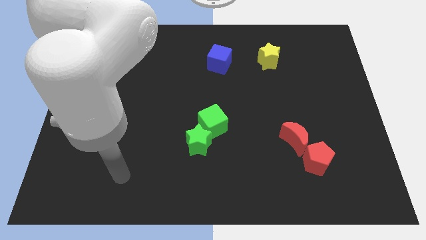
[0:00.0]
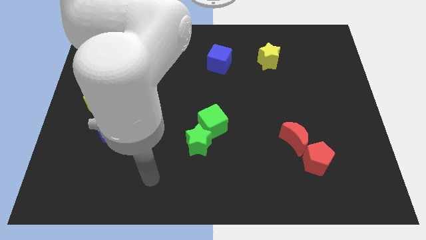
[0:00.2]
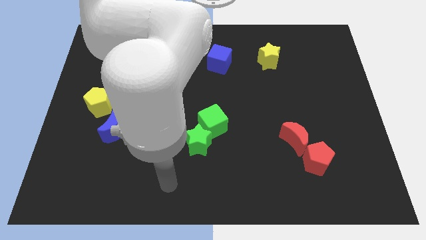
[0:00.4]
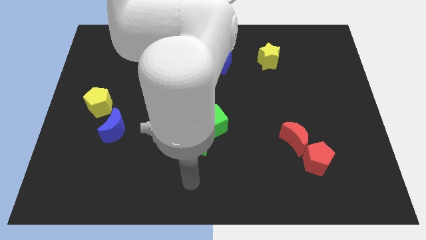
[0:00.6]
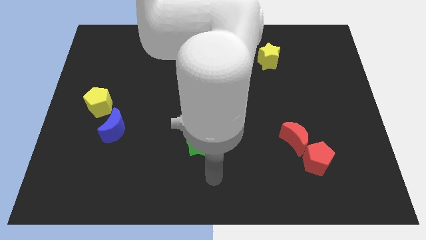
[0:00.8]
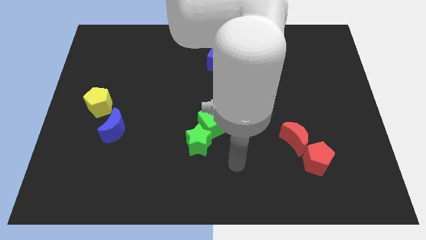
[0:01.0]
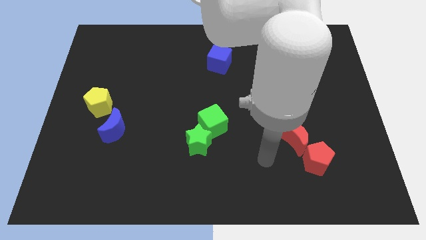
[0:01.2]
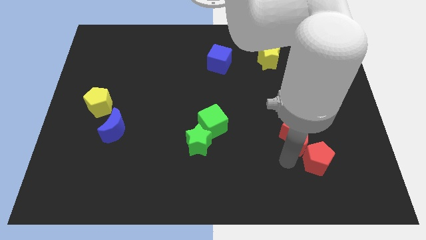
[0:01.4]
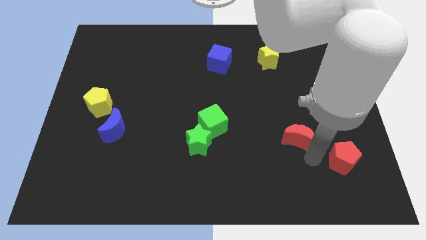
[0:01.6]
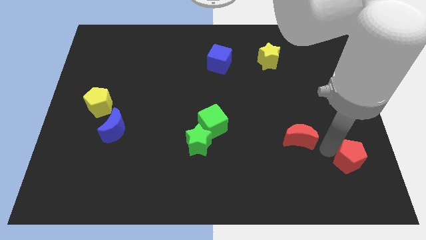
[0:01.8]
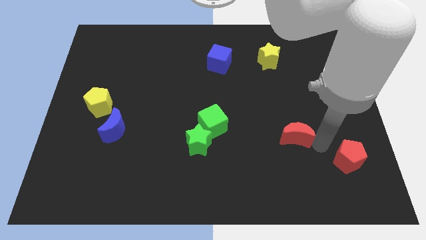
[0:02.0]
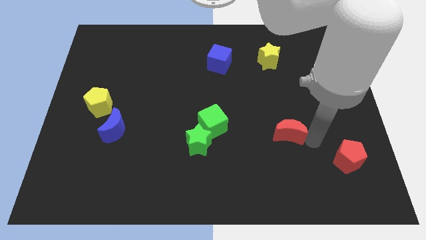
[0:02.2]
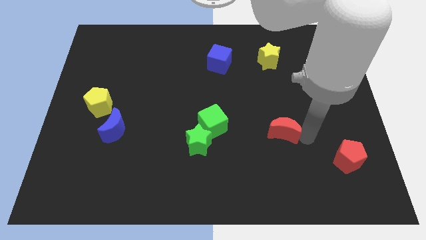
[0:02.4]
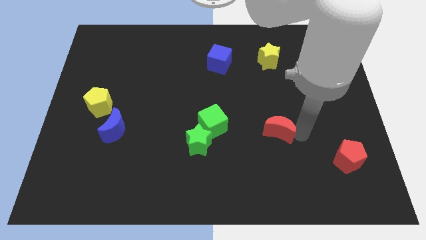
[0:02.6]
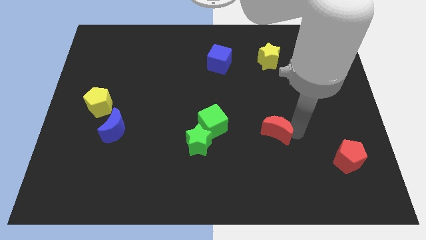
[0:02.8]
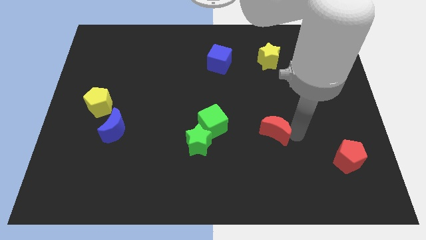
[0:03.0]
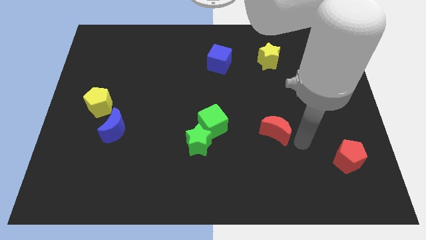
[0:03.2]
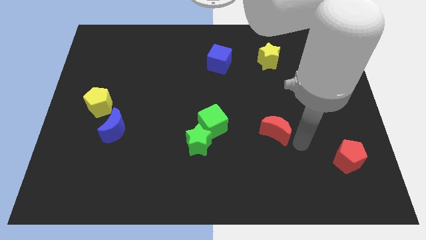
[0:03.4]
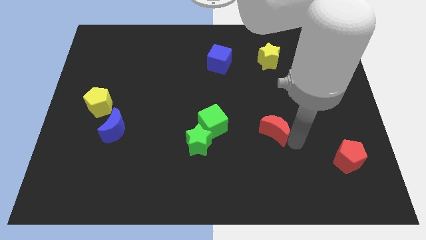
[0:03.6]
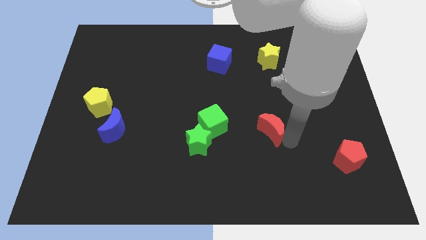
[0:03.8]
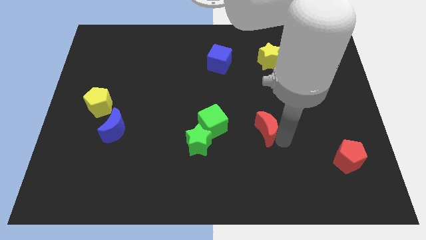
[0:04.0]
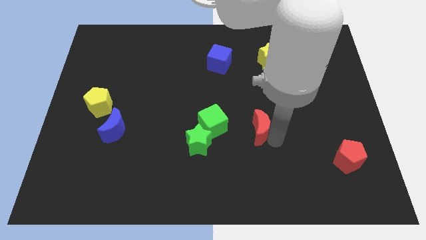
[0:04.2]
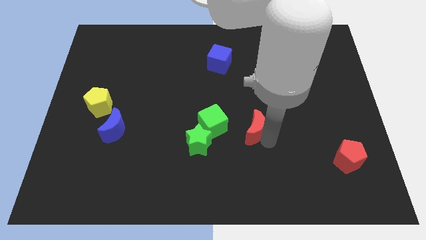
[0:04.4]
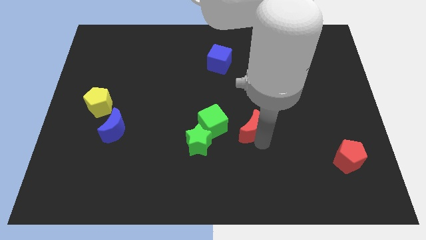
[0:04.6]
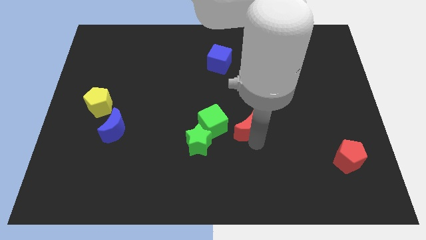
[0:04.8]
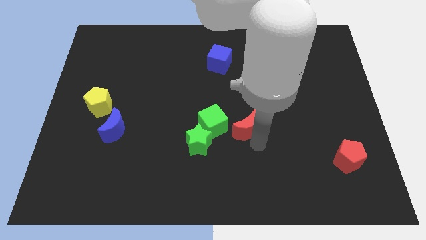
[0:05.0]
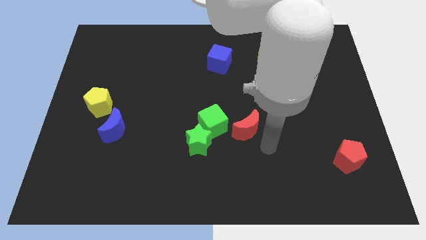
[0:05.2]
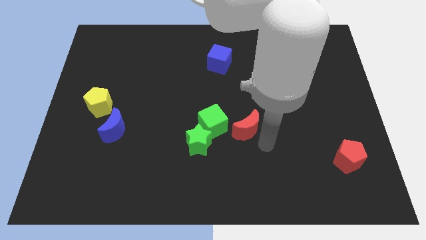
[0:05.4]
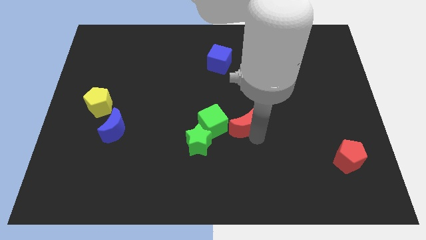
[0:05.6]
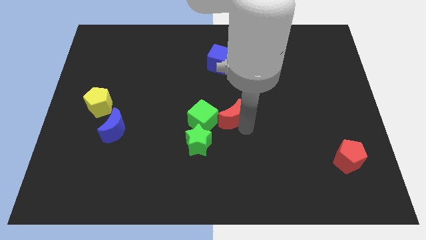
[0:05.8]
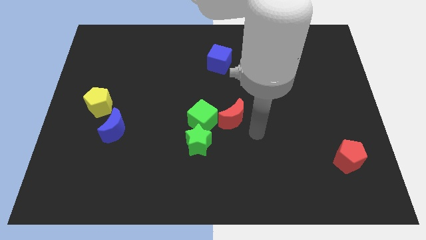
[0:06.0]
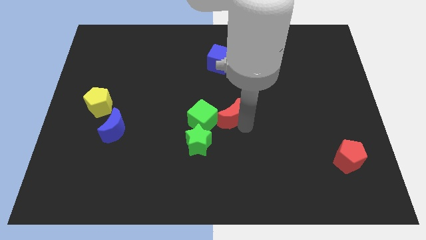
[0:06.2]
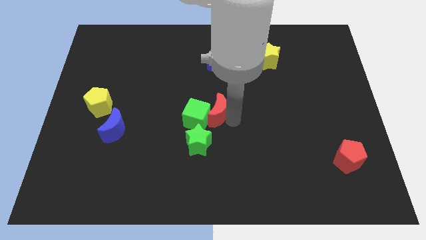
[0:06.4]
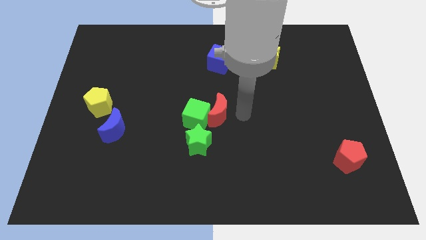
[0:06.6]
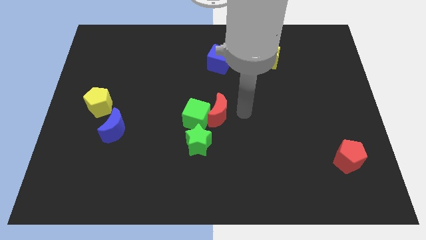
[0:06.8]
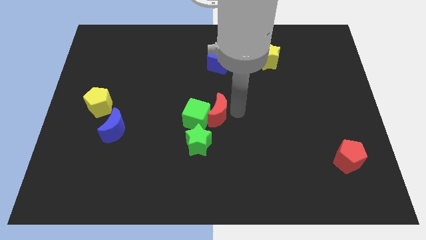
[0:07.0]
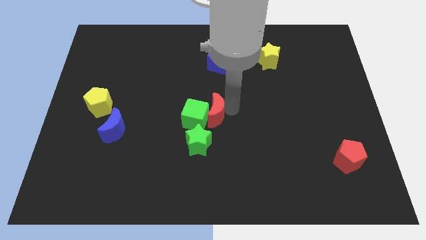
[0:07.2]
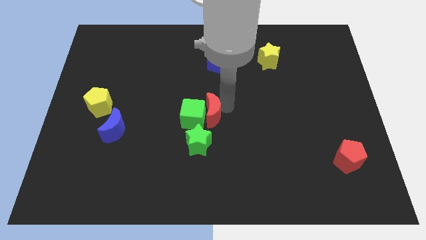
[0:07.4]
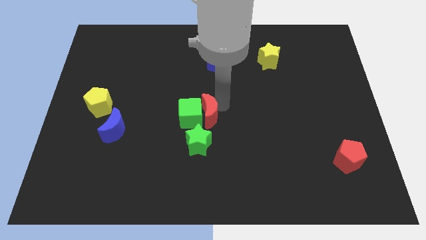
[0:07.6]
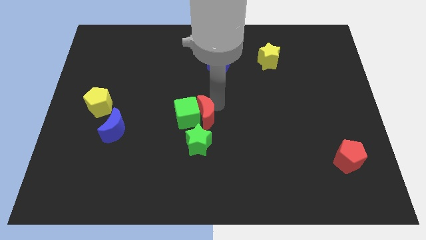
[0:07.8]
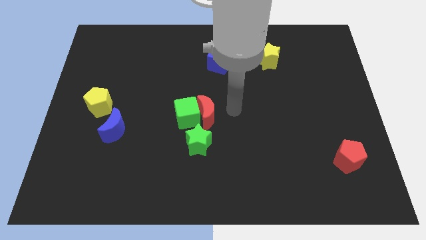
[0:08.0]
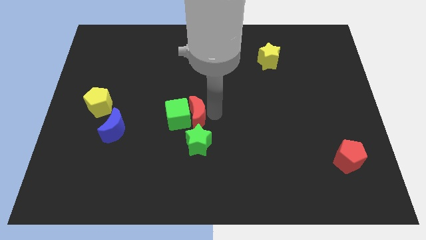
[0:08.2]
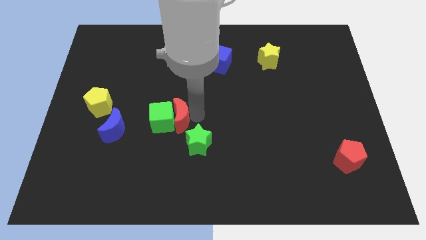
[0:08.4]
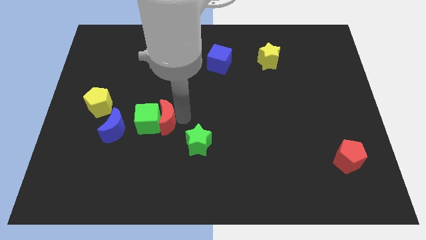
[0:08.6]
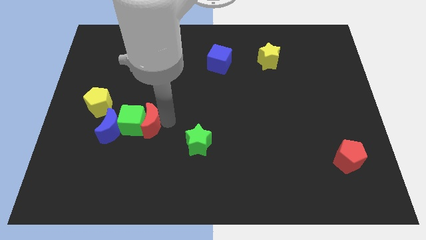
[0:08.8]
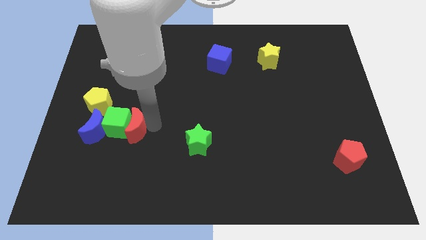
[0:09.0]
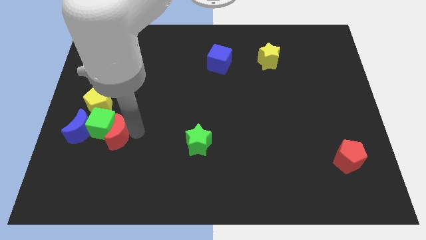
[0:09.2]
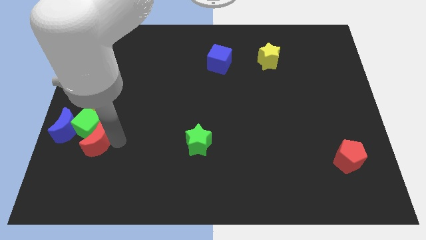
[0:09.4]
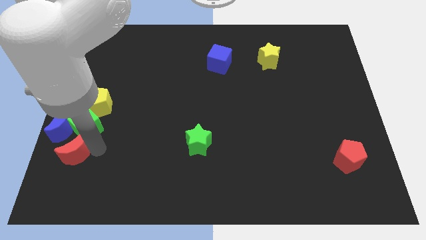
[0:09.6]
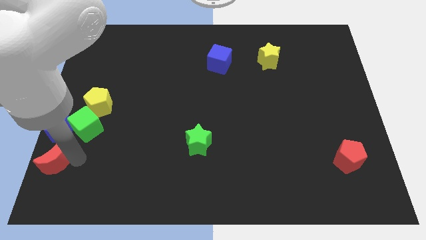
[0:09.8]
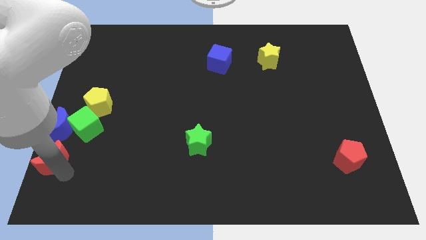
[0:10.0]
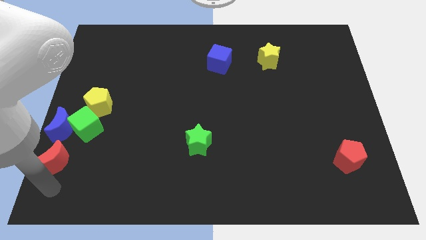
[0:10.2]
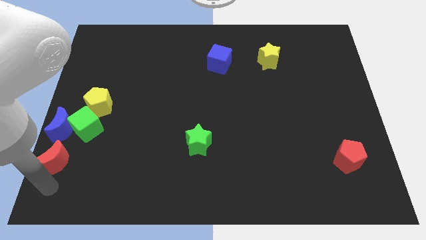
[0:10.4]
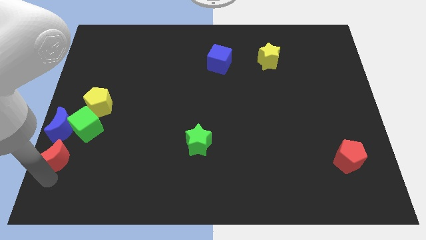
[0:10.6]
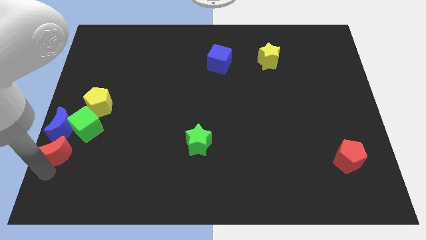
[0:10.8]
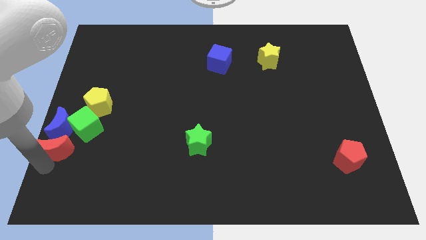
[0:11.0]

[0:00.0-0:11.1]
slide the red moon to the blue moon

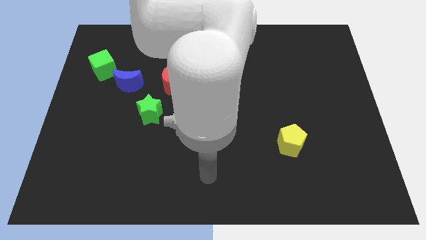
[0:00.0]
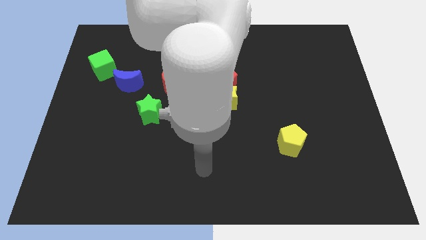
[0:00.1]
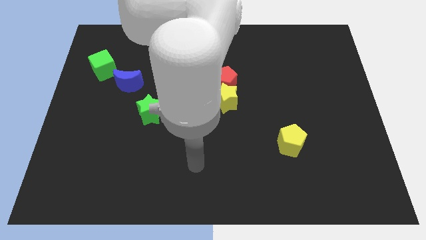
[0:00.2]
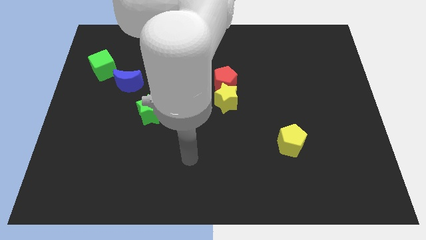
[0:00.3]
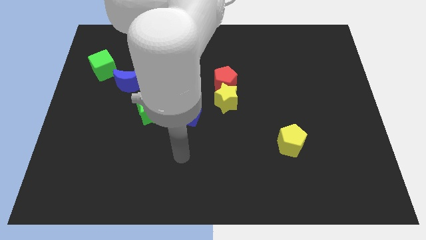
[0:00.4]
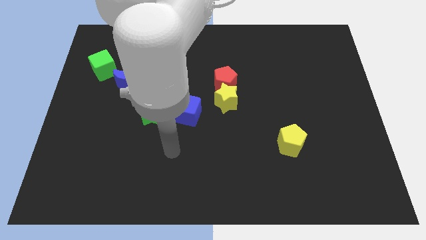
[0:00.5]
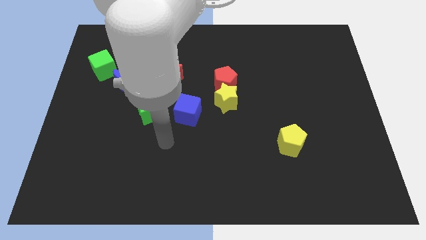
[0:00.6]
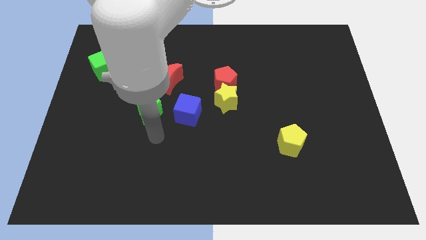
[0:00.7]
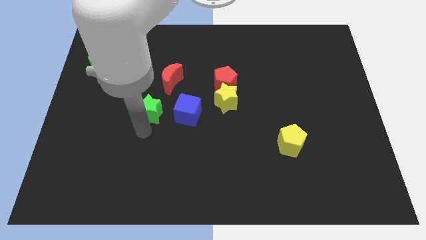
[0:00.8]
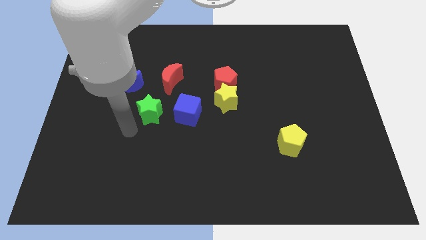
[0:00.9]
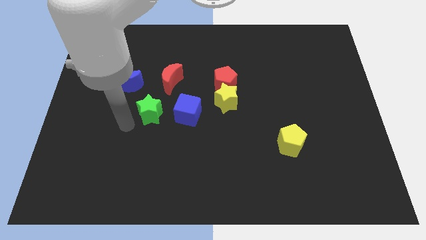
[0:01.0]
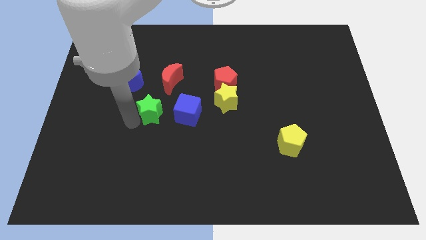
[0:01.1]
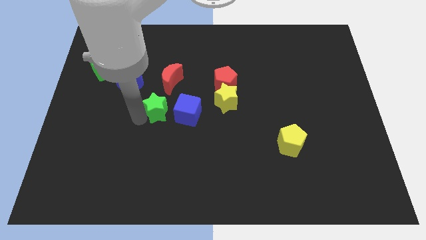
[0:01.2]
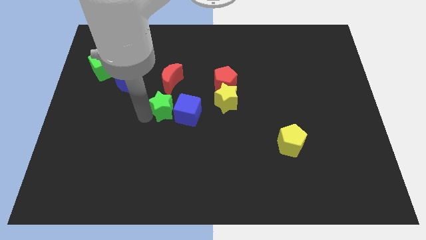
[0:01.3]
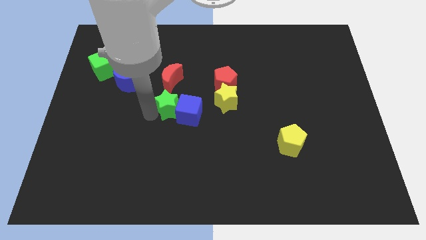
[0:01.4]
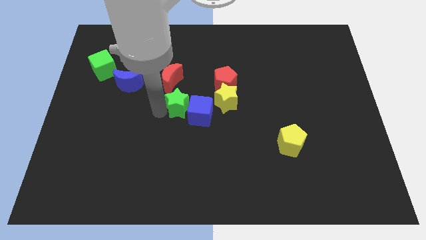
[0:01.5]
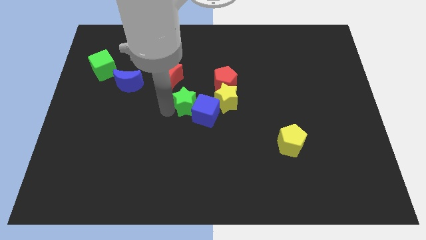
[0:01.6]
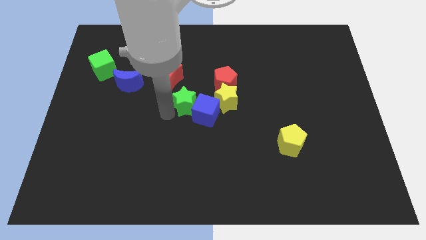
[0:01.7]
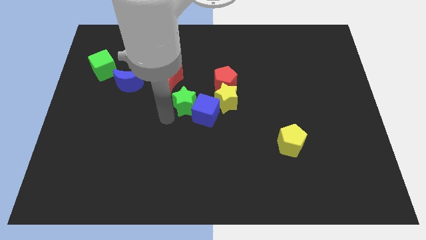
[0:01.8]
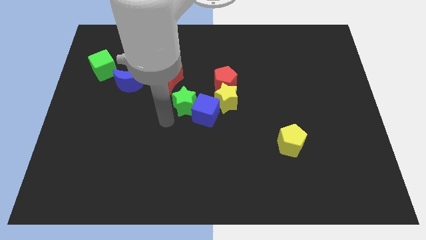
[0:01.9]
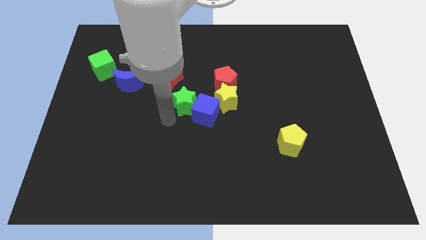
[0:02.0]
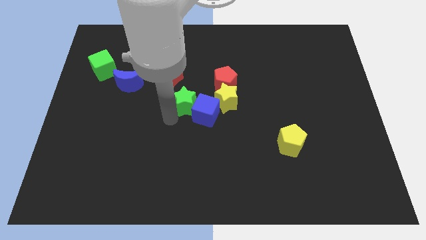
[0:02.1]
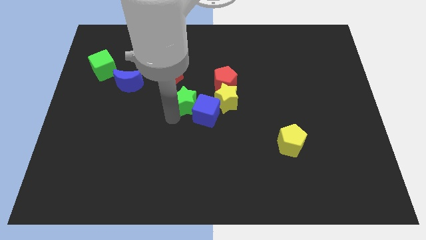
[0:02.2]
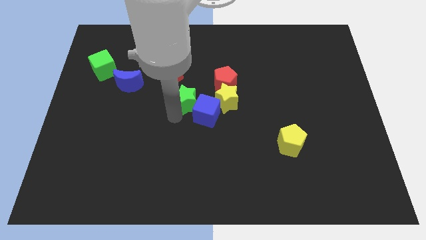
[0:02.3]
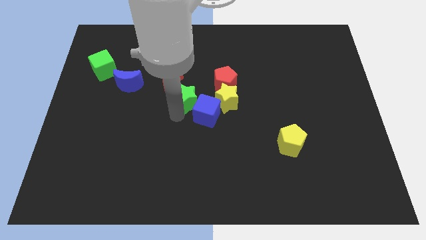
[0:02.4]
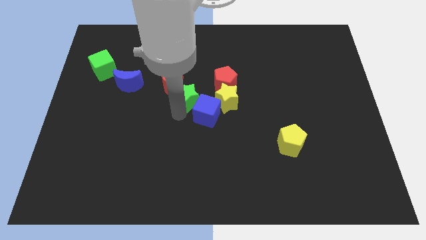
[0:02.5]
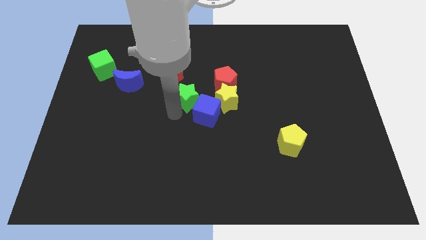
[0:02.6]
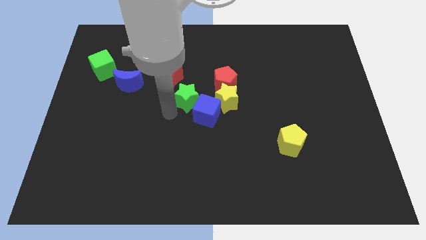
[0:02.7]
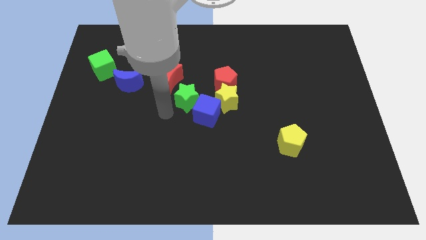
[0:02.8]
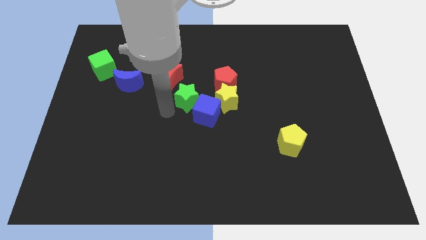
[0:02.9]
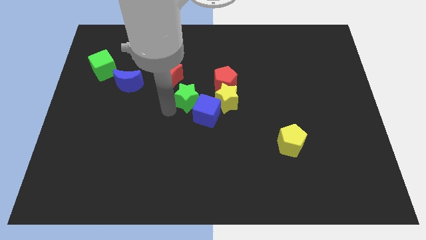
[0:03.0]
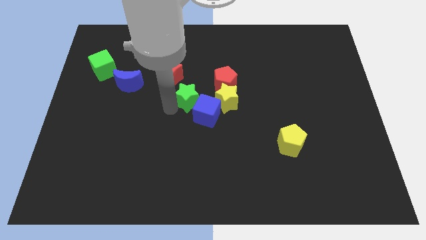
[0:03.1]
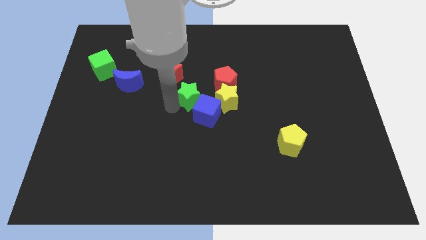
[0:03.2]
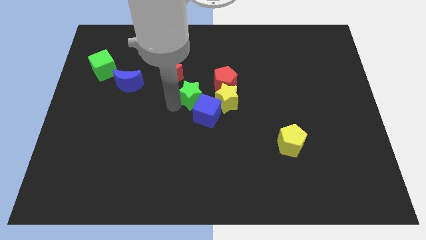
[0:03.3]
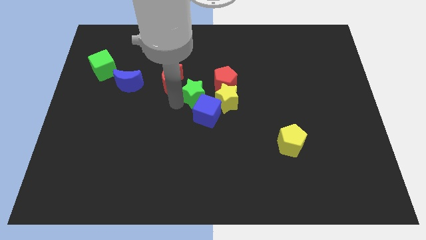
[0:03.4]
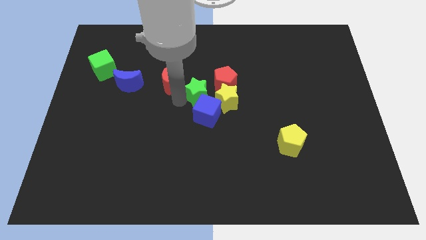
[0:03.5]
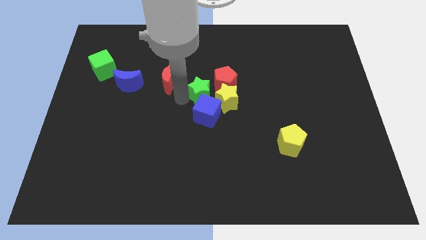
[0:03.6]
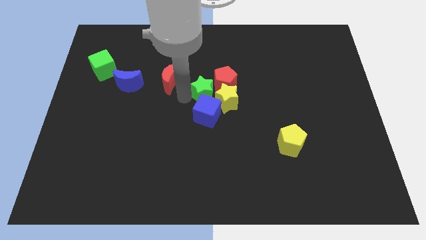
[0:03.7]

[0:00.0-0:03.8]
move the green star close to the red pentagon
